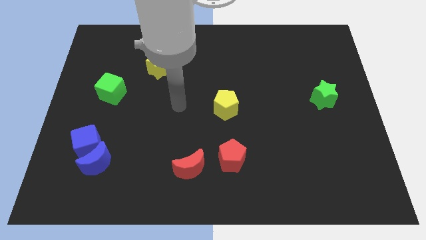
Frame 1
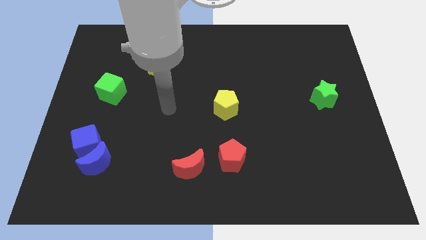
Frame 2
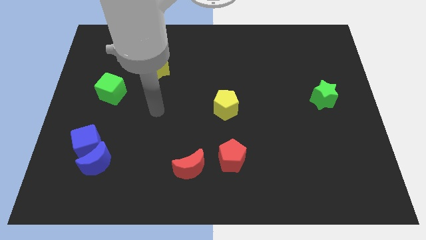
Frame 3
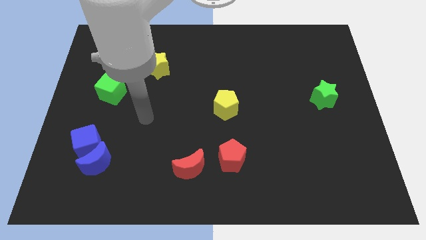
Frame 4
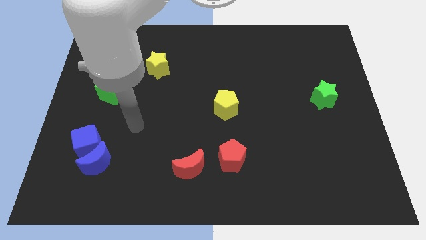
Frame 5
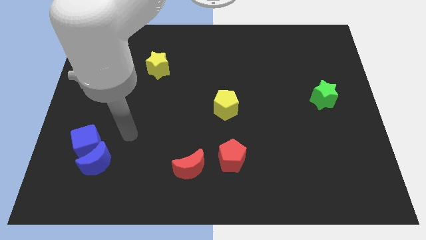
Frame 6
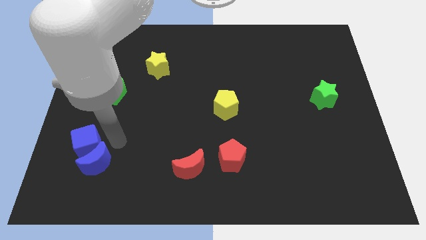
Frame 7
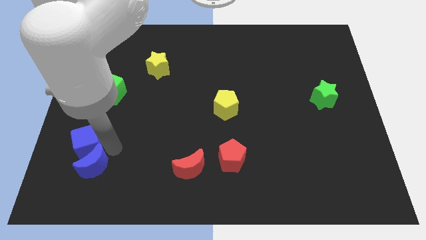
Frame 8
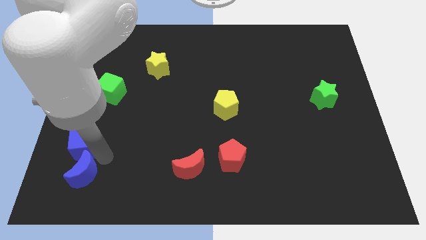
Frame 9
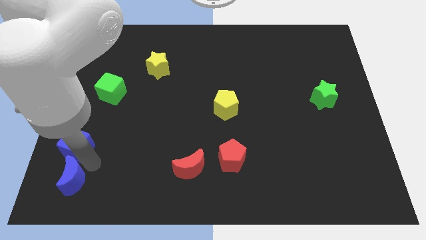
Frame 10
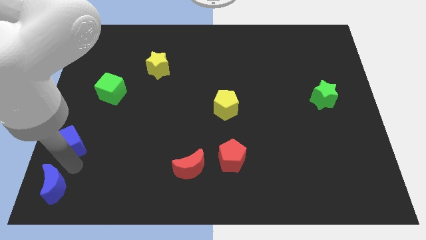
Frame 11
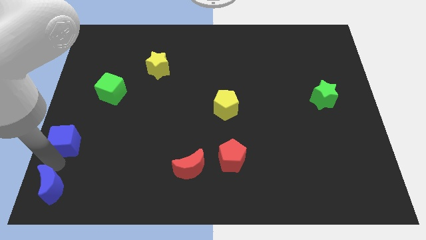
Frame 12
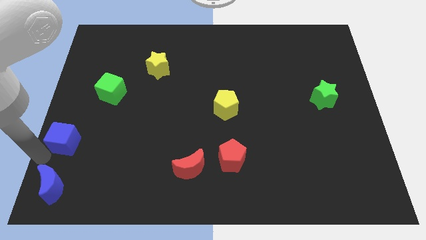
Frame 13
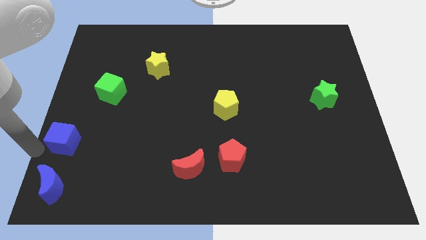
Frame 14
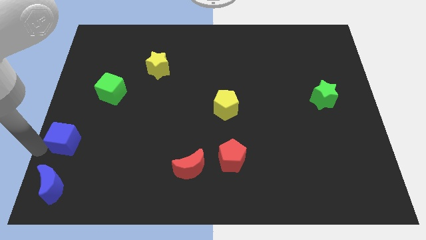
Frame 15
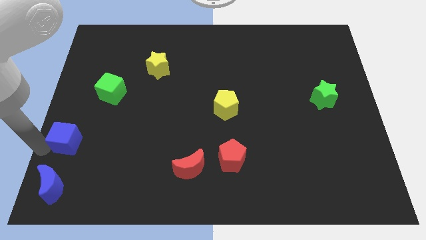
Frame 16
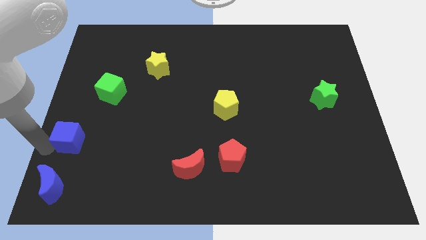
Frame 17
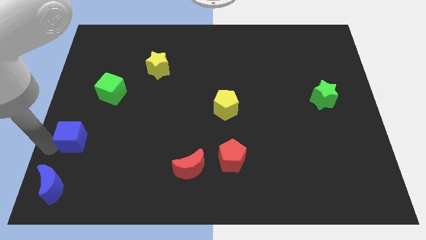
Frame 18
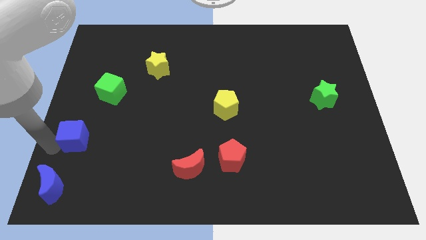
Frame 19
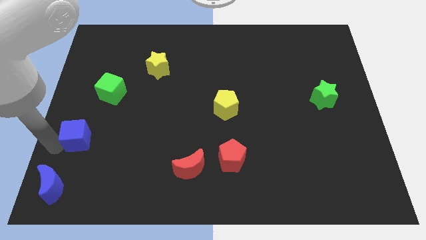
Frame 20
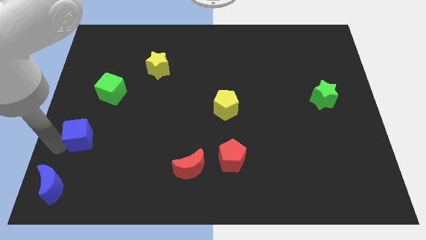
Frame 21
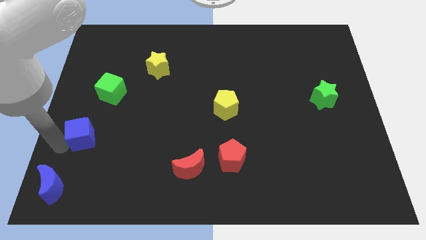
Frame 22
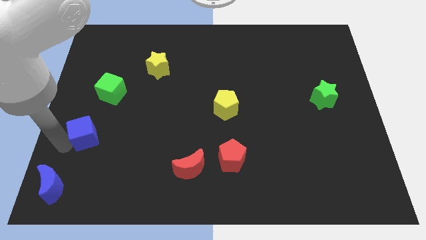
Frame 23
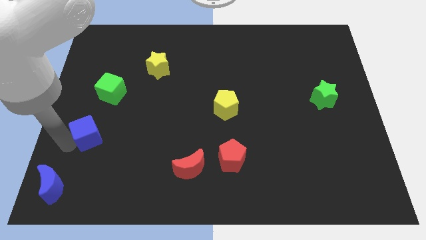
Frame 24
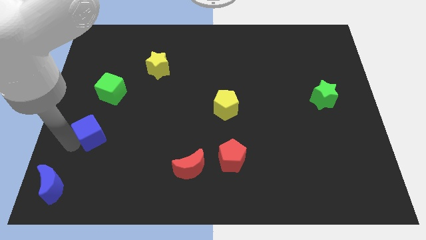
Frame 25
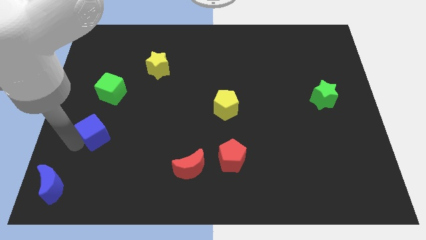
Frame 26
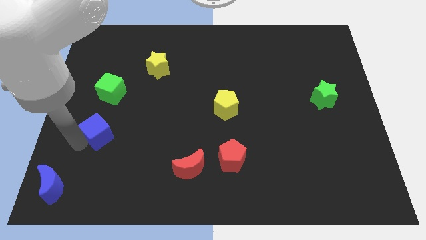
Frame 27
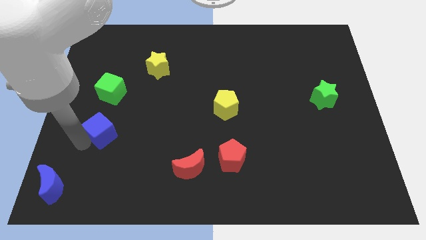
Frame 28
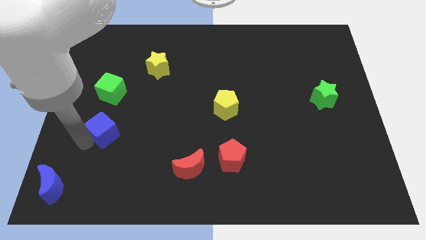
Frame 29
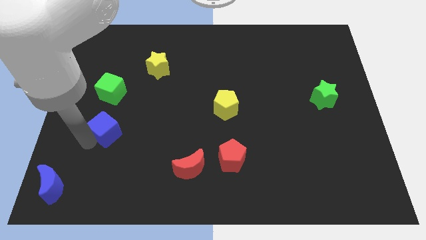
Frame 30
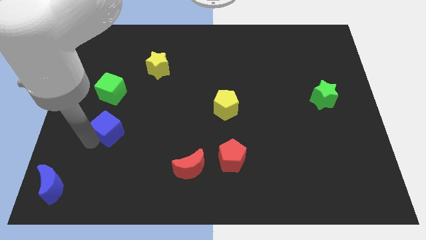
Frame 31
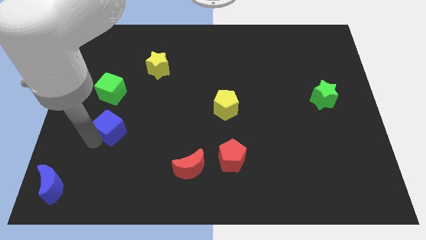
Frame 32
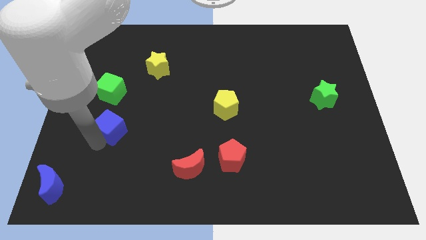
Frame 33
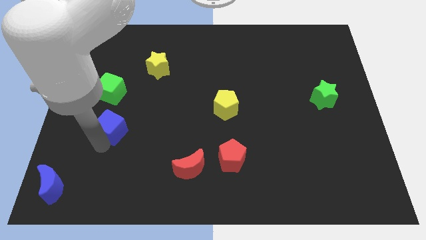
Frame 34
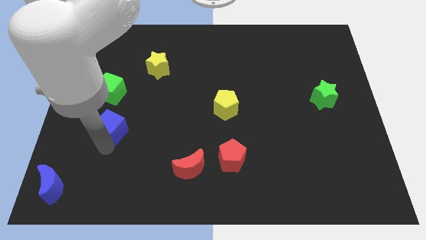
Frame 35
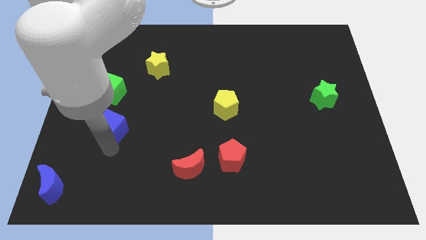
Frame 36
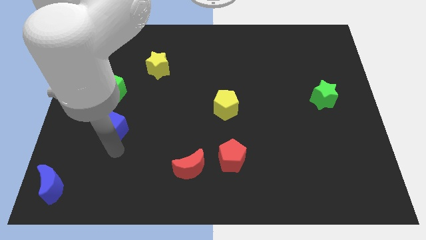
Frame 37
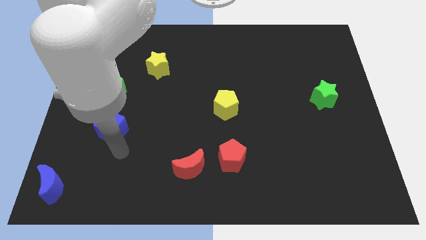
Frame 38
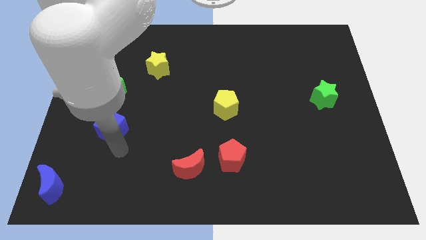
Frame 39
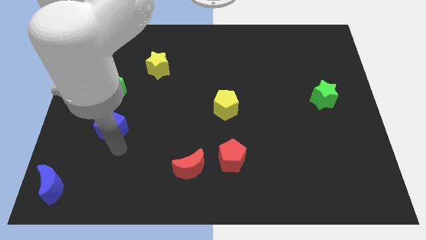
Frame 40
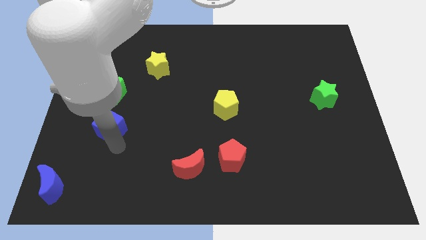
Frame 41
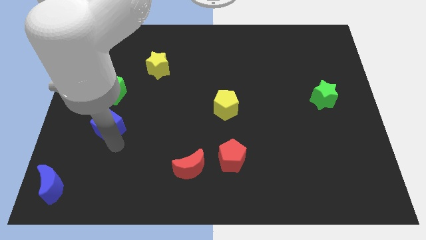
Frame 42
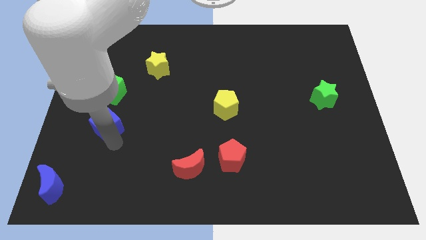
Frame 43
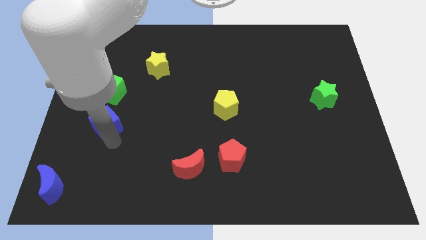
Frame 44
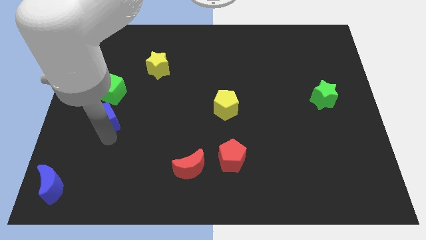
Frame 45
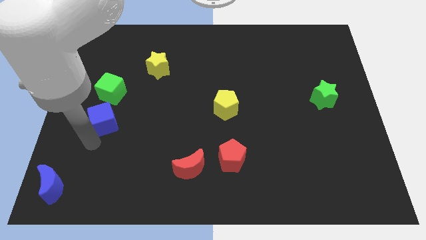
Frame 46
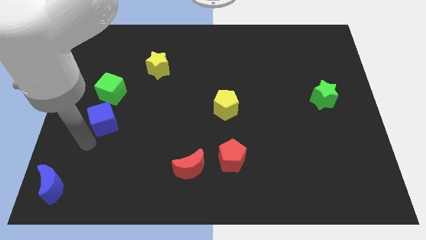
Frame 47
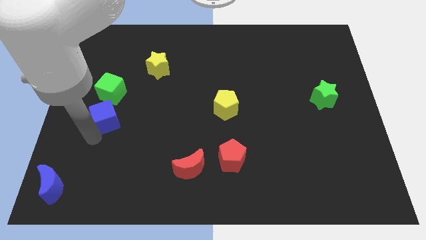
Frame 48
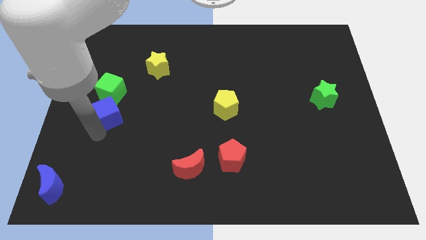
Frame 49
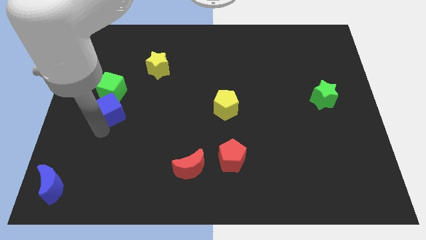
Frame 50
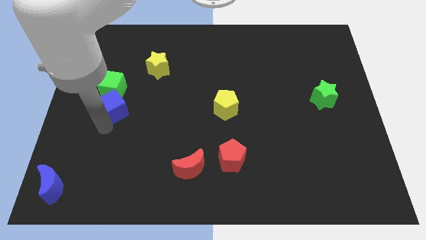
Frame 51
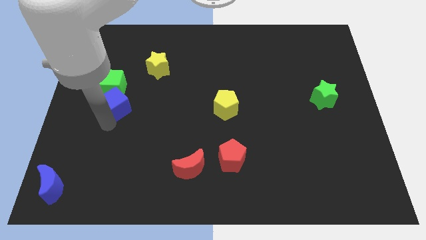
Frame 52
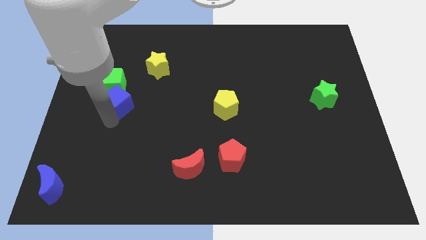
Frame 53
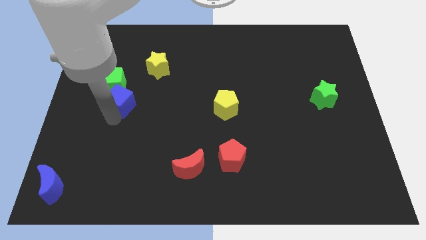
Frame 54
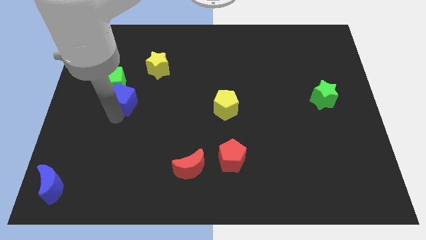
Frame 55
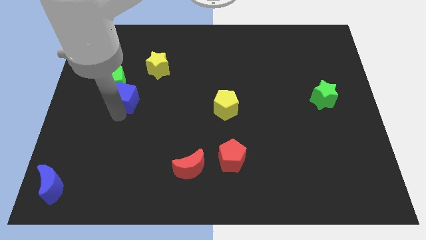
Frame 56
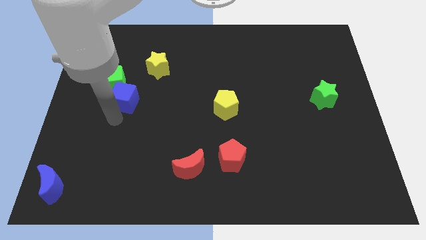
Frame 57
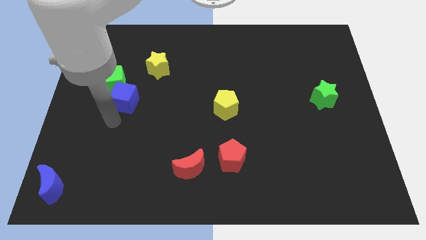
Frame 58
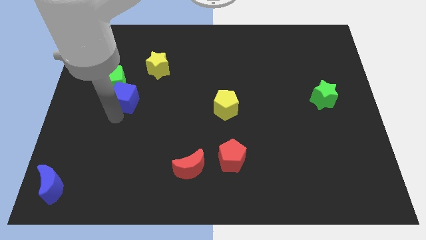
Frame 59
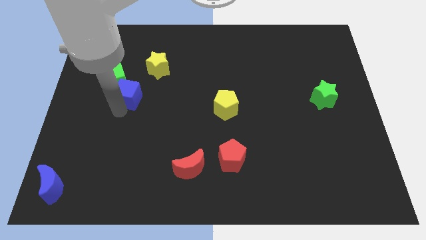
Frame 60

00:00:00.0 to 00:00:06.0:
push the blue cube to the bottom left side of the yellow star

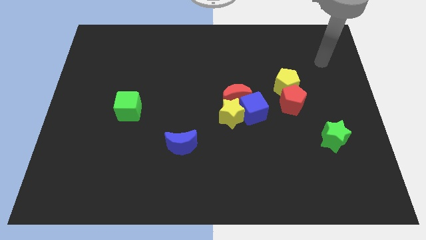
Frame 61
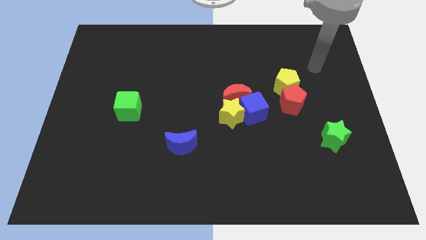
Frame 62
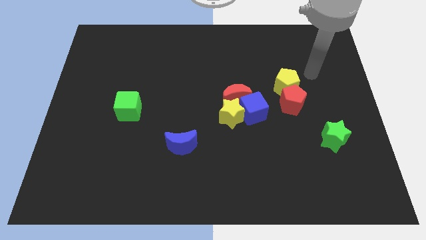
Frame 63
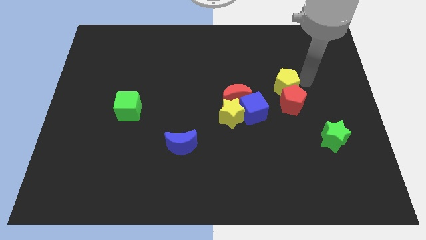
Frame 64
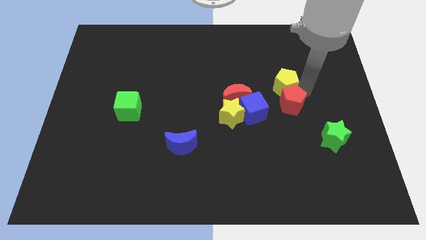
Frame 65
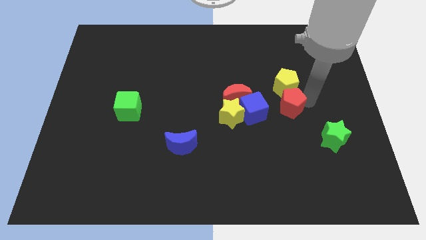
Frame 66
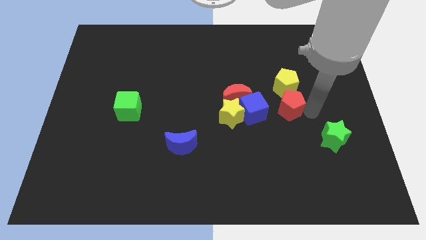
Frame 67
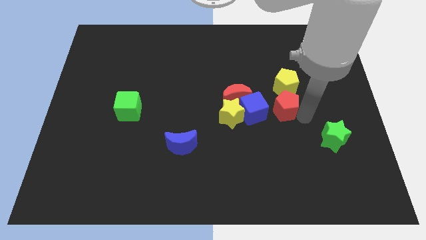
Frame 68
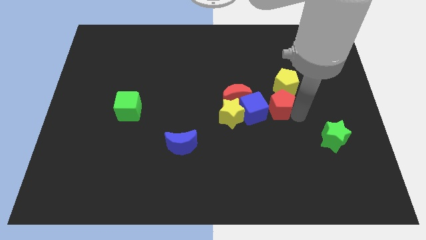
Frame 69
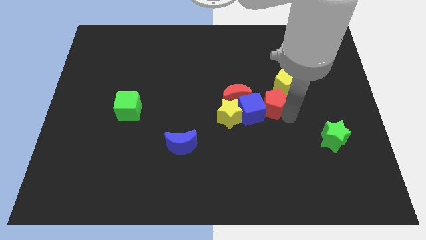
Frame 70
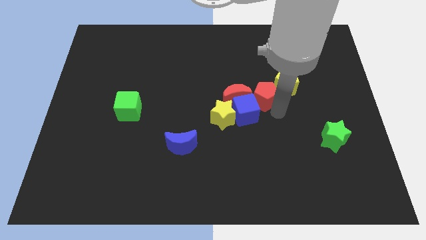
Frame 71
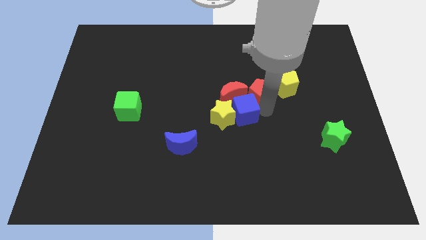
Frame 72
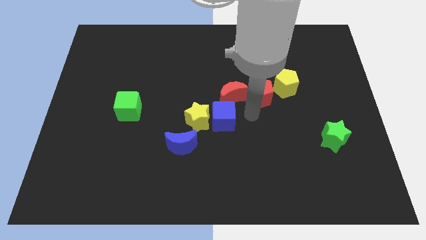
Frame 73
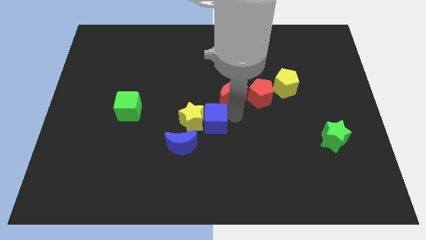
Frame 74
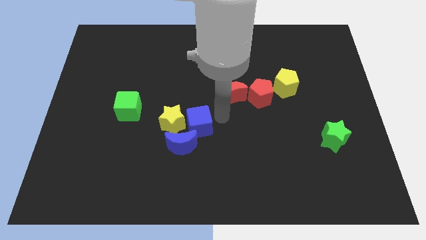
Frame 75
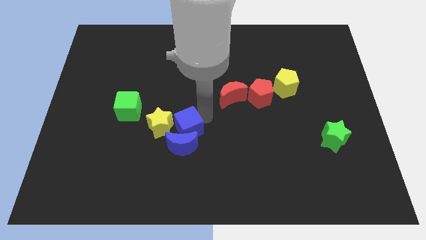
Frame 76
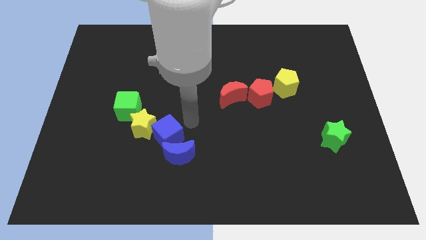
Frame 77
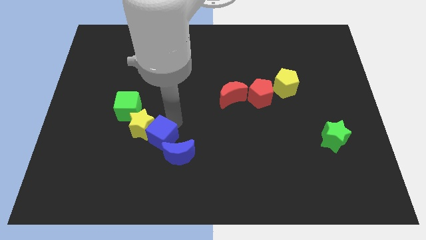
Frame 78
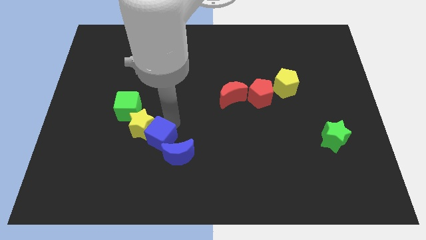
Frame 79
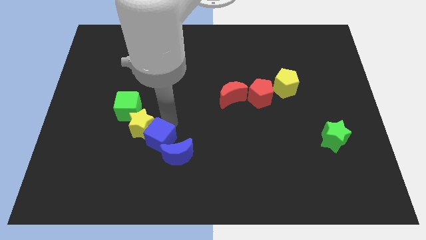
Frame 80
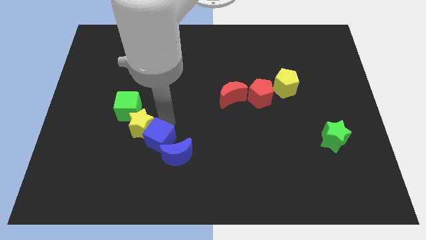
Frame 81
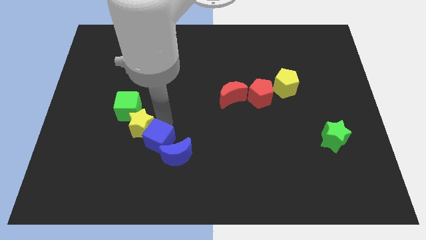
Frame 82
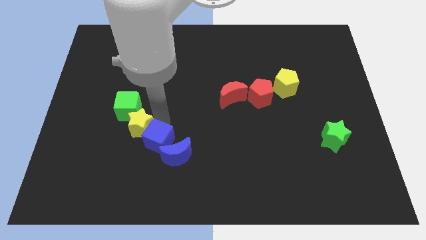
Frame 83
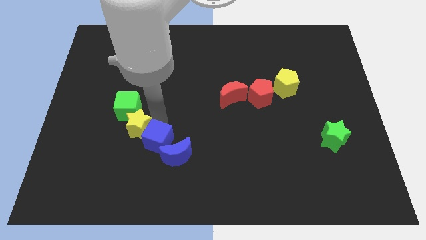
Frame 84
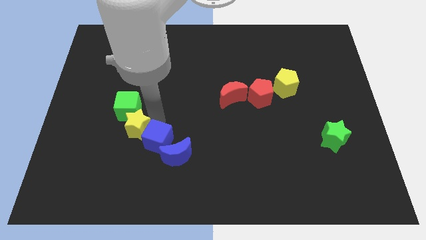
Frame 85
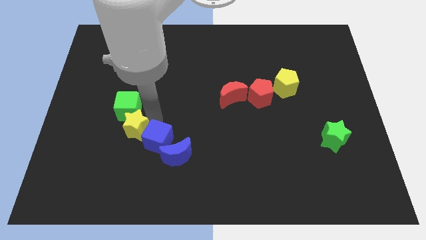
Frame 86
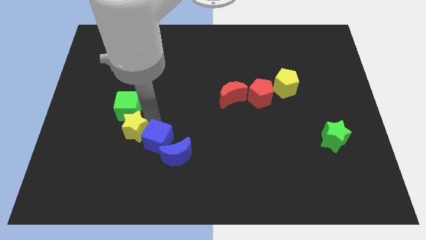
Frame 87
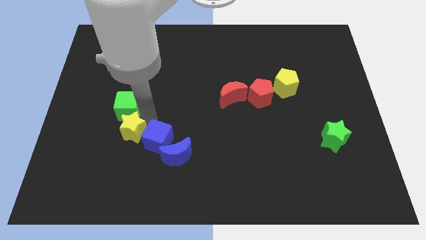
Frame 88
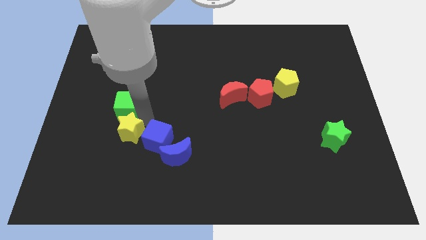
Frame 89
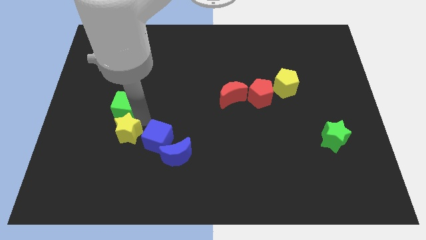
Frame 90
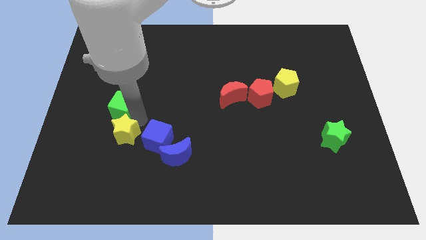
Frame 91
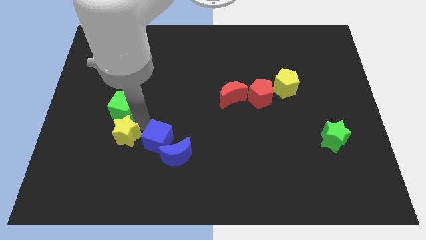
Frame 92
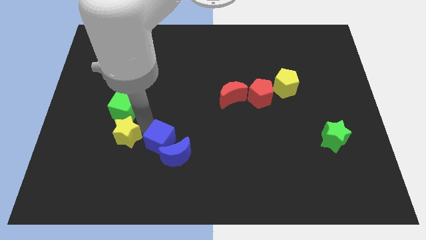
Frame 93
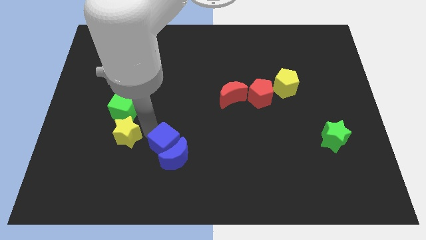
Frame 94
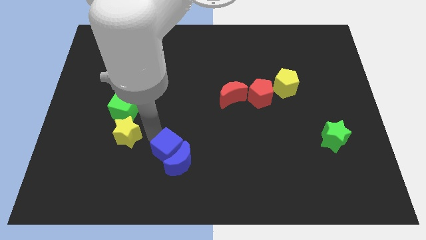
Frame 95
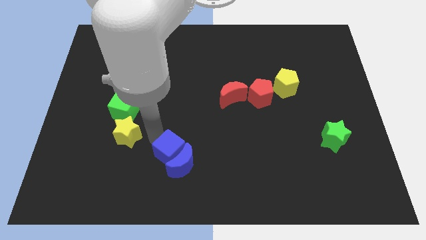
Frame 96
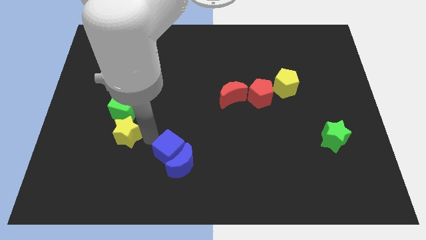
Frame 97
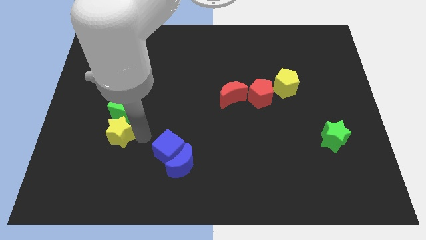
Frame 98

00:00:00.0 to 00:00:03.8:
slide the yellow star diagonally down and to the left of the green cube
